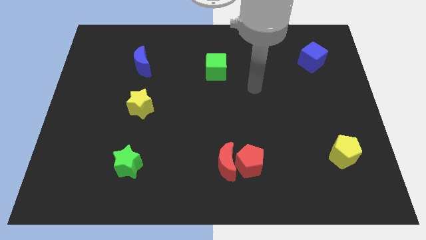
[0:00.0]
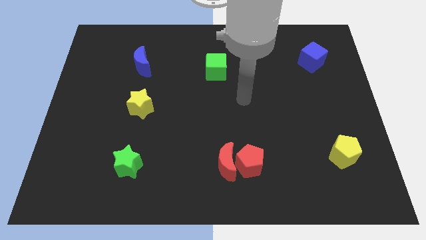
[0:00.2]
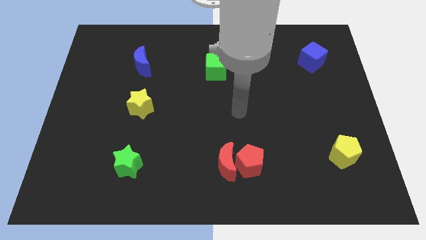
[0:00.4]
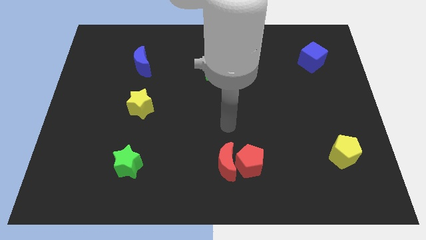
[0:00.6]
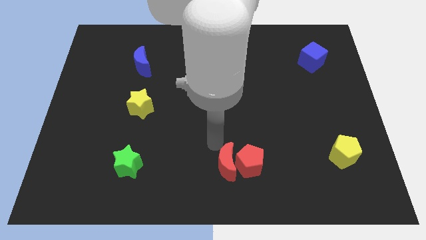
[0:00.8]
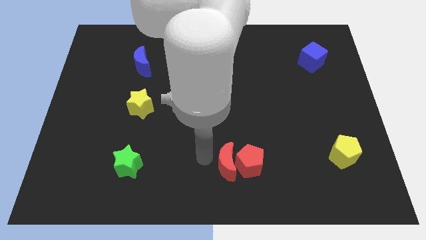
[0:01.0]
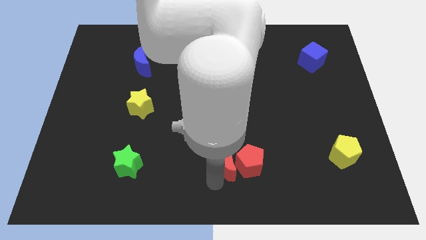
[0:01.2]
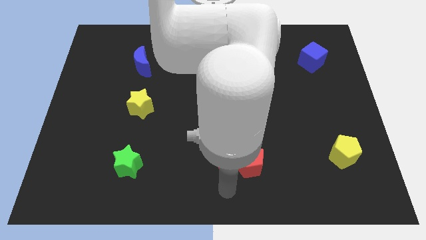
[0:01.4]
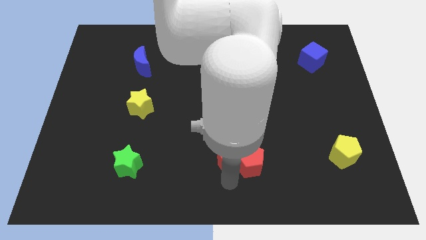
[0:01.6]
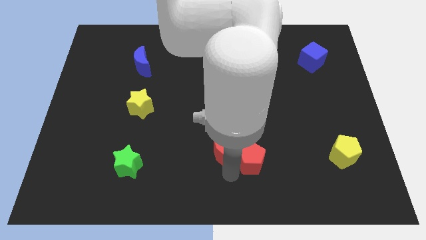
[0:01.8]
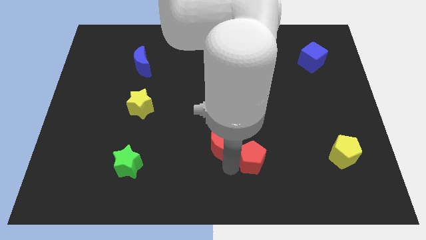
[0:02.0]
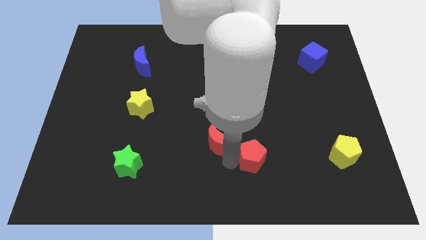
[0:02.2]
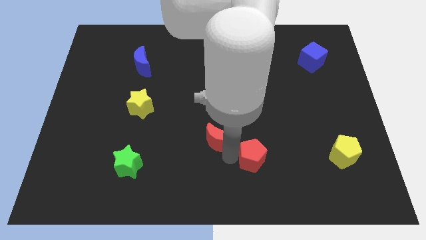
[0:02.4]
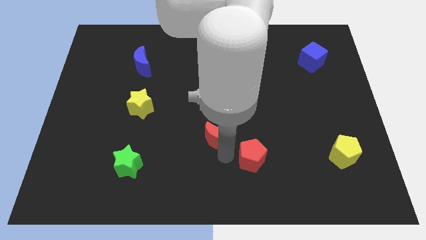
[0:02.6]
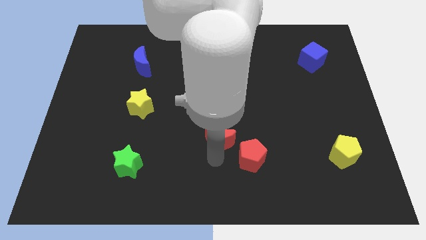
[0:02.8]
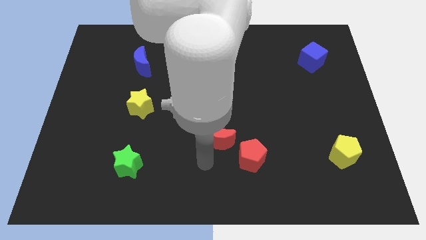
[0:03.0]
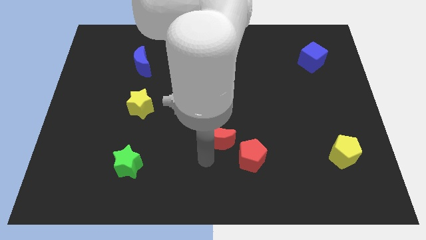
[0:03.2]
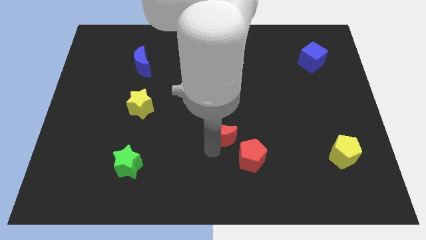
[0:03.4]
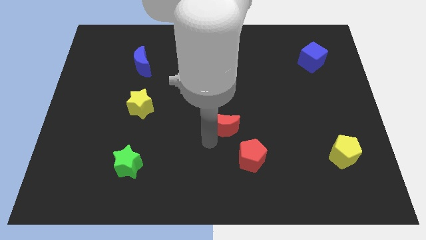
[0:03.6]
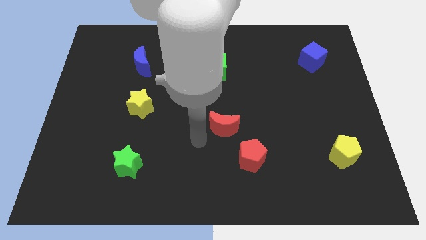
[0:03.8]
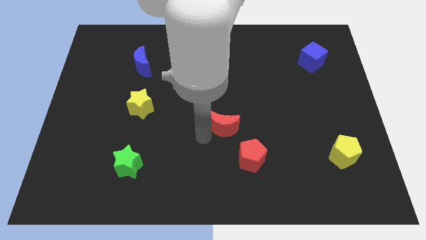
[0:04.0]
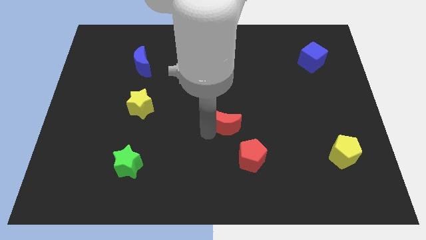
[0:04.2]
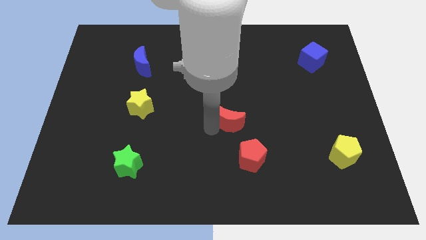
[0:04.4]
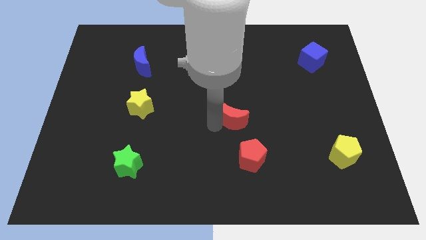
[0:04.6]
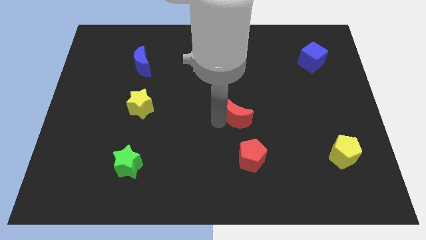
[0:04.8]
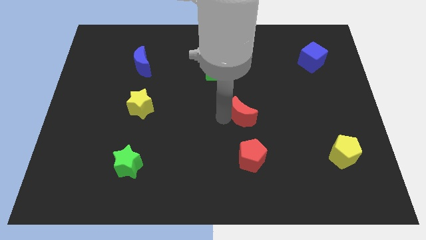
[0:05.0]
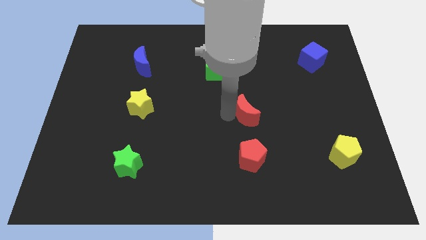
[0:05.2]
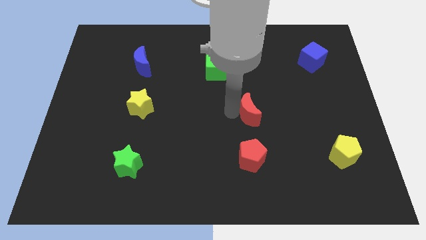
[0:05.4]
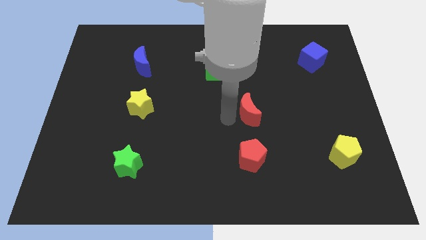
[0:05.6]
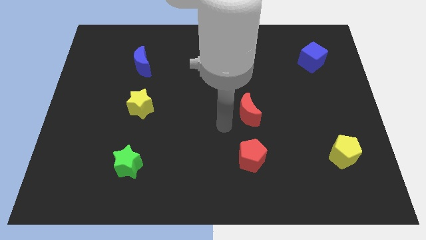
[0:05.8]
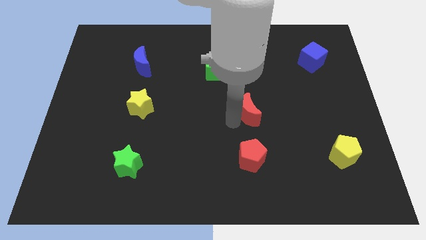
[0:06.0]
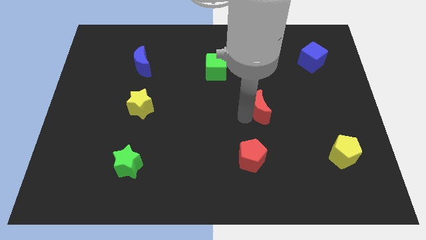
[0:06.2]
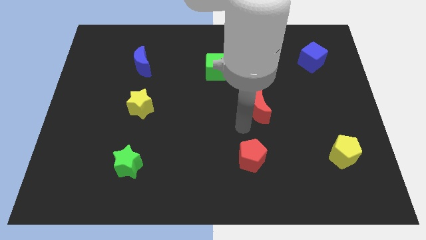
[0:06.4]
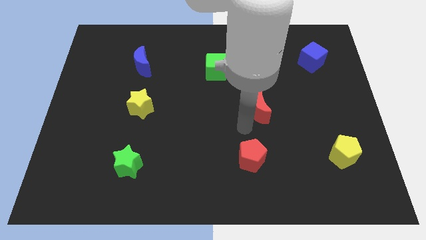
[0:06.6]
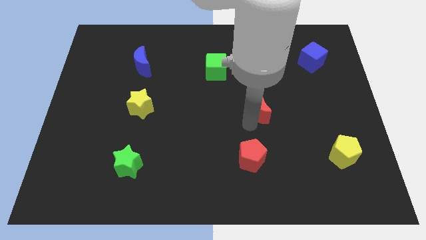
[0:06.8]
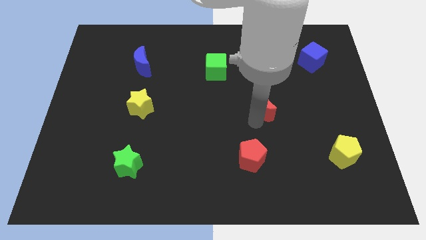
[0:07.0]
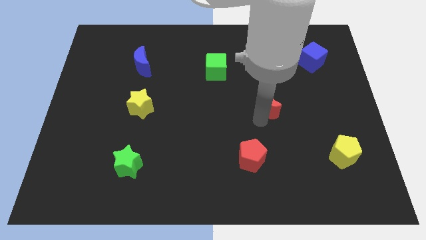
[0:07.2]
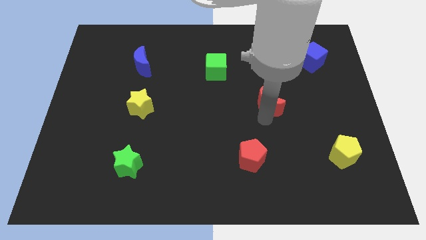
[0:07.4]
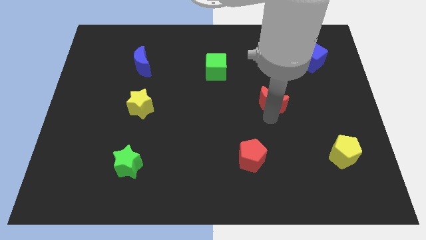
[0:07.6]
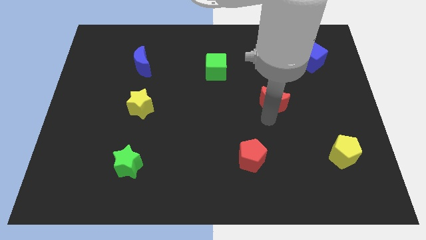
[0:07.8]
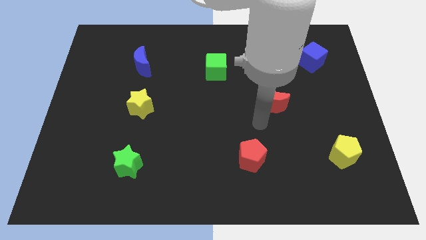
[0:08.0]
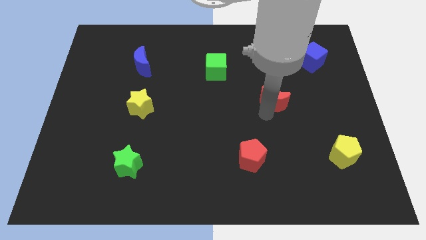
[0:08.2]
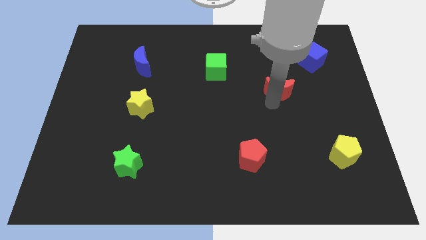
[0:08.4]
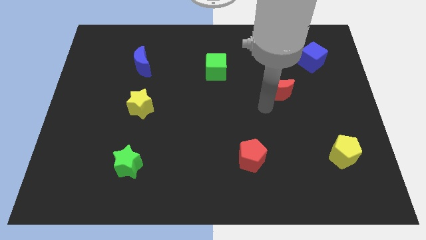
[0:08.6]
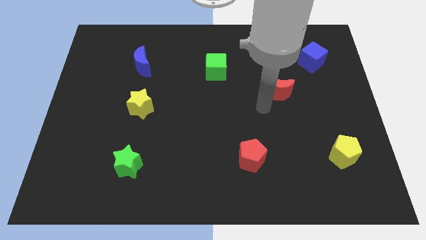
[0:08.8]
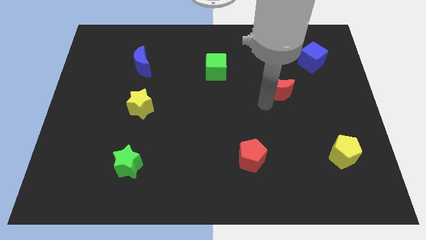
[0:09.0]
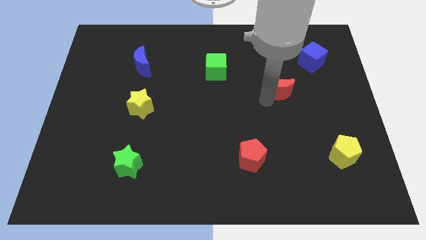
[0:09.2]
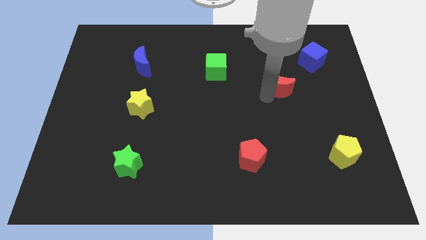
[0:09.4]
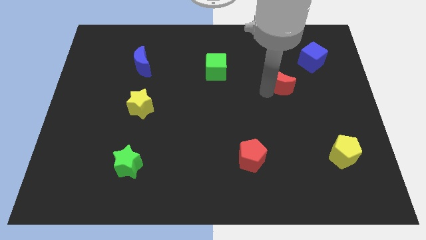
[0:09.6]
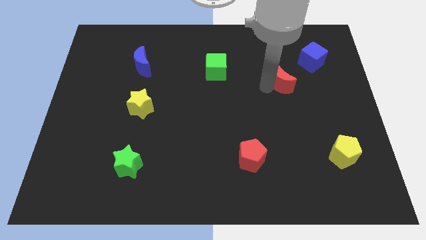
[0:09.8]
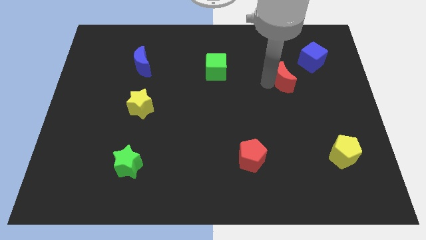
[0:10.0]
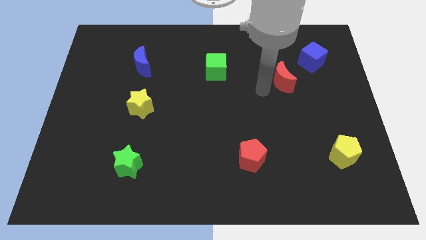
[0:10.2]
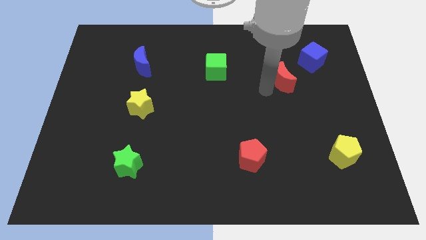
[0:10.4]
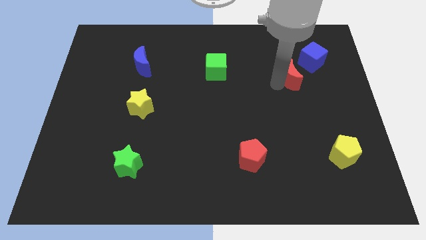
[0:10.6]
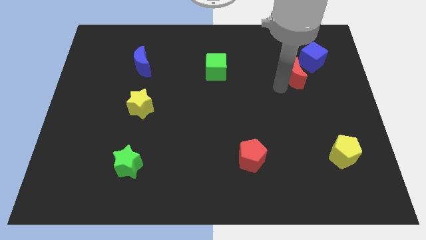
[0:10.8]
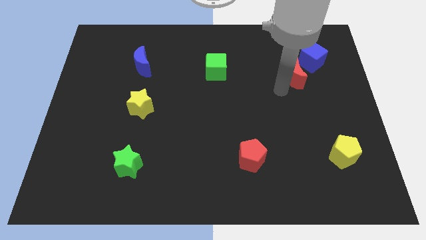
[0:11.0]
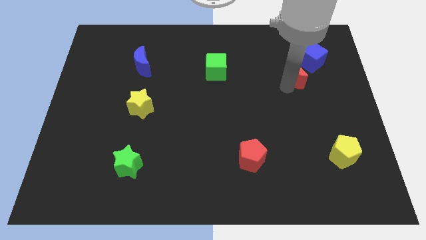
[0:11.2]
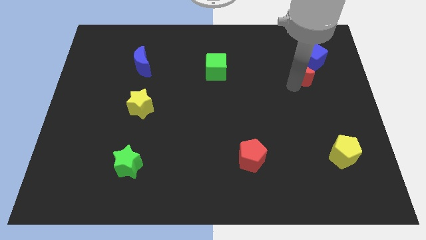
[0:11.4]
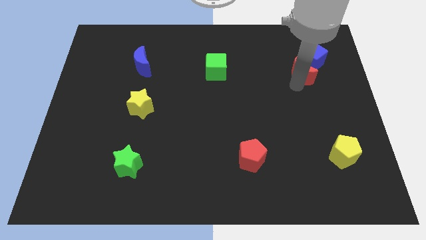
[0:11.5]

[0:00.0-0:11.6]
move the red moon to the blue cube

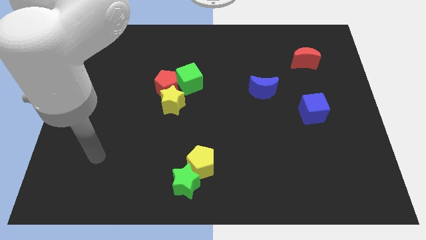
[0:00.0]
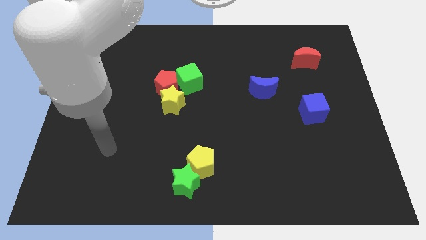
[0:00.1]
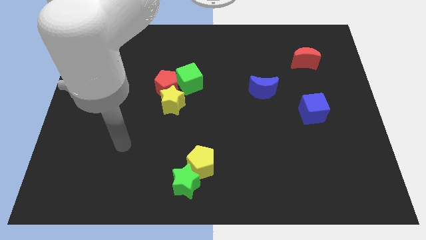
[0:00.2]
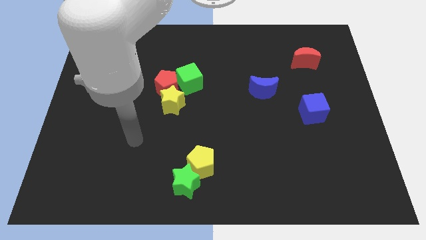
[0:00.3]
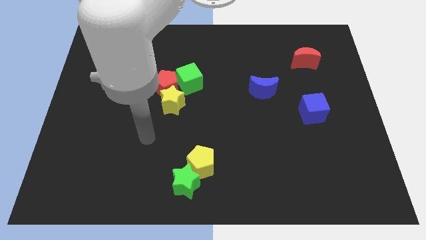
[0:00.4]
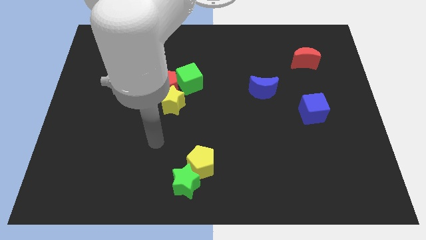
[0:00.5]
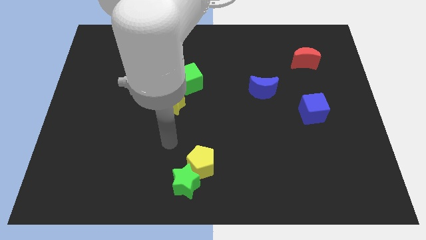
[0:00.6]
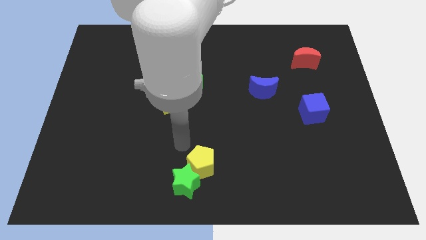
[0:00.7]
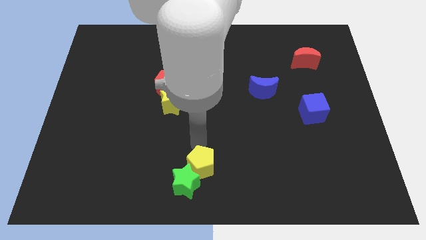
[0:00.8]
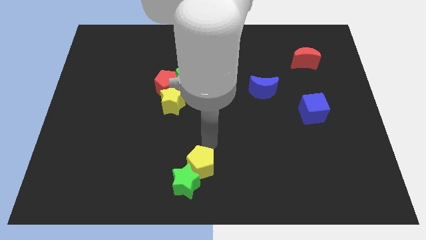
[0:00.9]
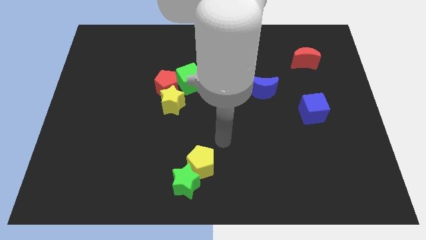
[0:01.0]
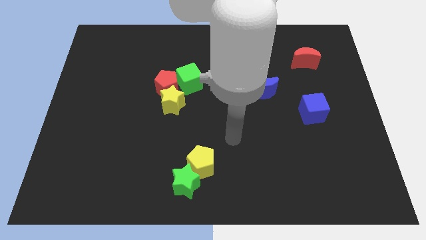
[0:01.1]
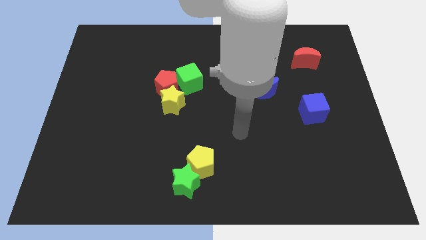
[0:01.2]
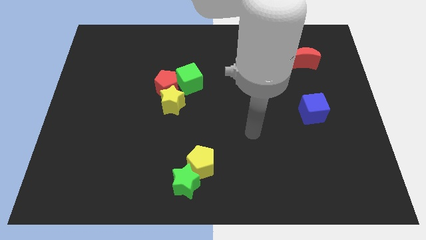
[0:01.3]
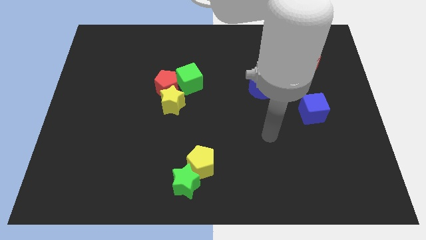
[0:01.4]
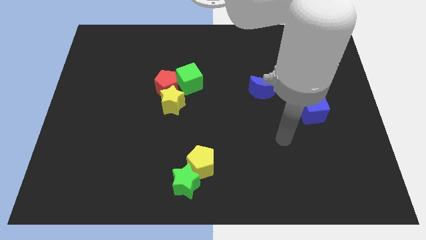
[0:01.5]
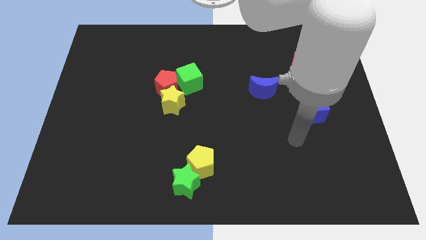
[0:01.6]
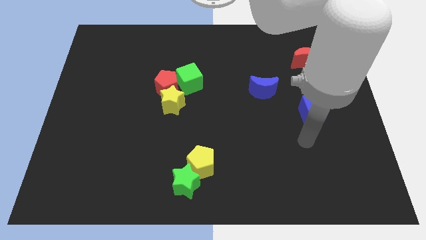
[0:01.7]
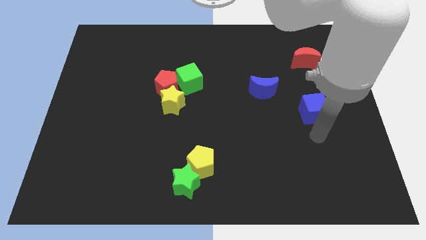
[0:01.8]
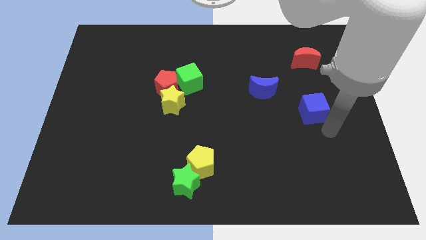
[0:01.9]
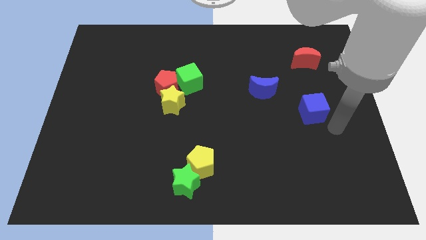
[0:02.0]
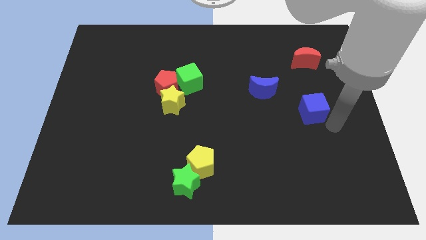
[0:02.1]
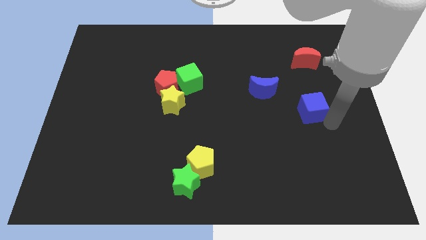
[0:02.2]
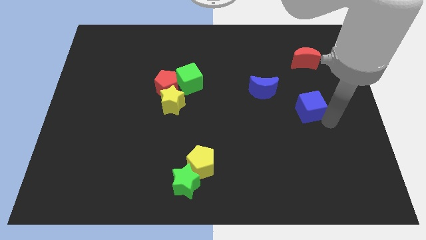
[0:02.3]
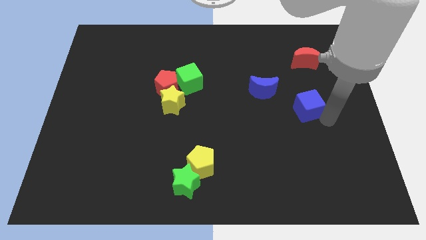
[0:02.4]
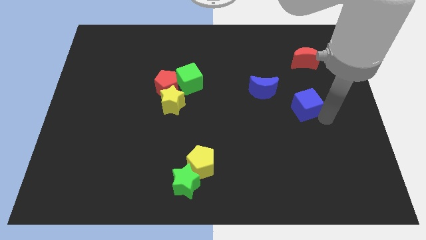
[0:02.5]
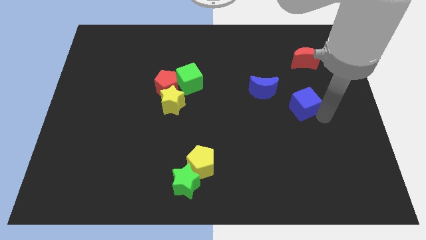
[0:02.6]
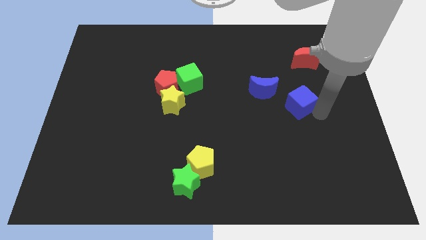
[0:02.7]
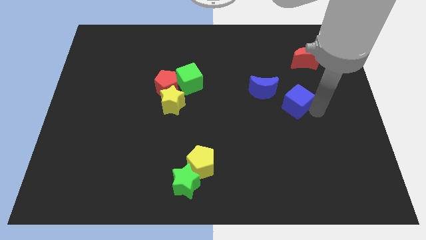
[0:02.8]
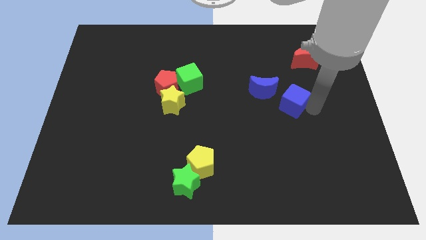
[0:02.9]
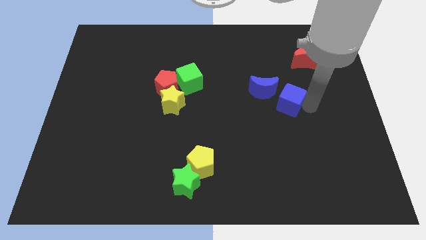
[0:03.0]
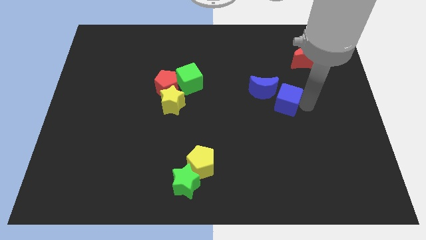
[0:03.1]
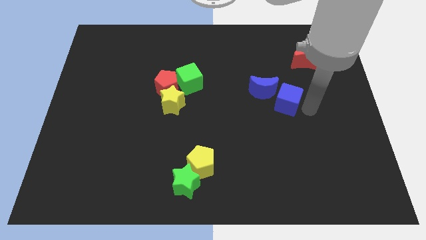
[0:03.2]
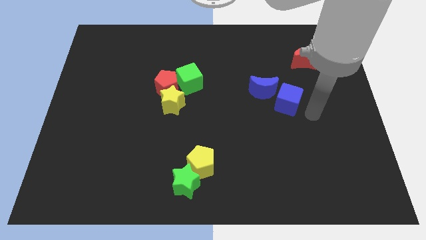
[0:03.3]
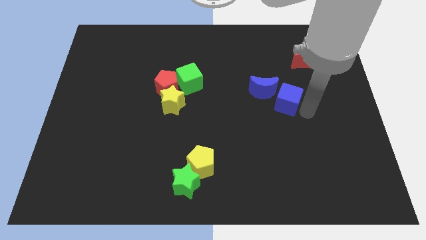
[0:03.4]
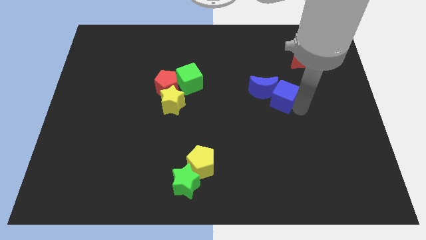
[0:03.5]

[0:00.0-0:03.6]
put the blue cube next to the blue moon
